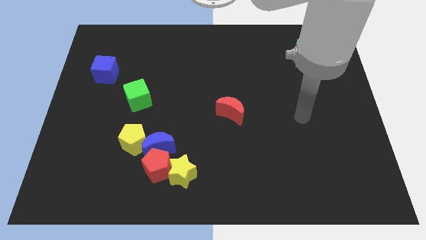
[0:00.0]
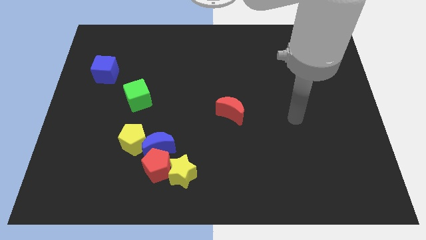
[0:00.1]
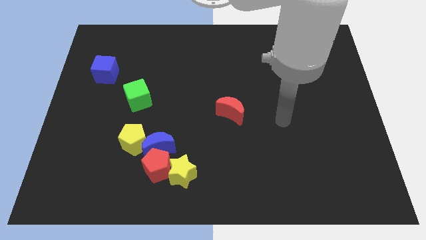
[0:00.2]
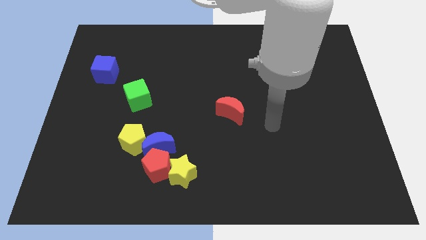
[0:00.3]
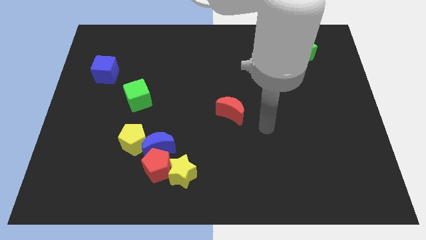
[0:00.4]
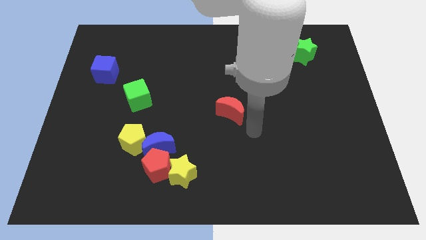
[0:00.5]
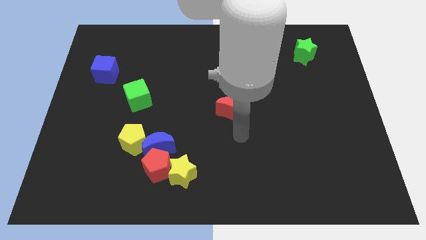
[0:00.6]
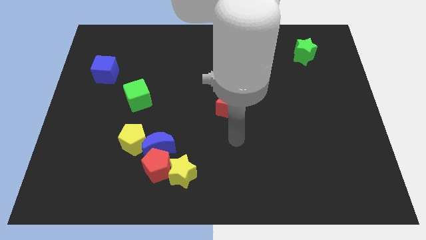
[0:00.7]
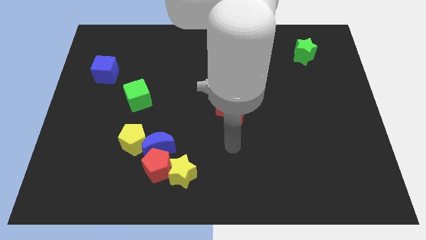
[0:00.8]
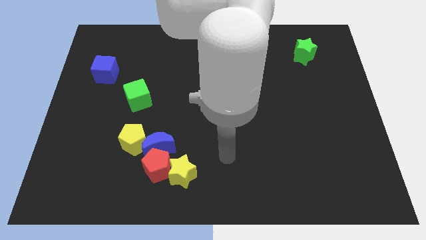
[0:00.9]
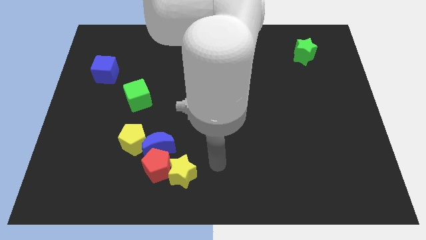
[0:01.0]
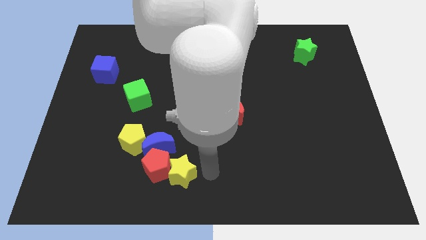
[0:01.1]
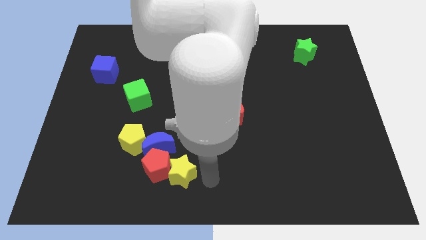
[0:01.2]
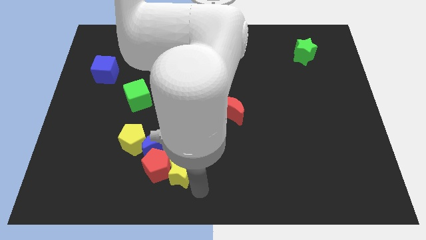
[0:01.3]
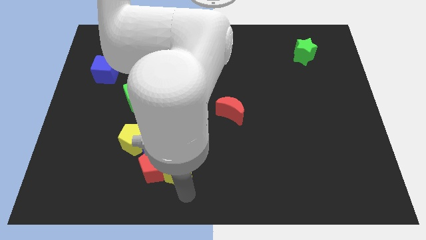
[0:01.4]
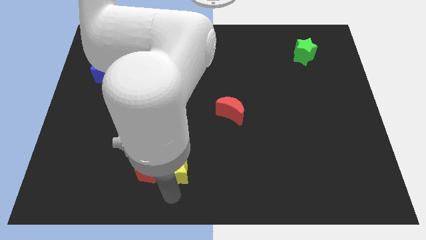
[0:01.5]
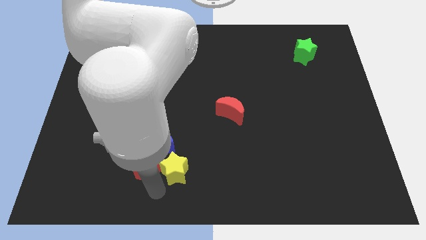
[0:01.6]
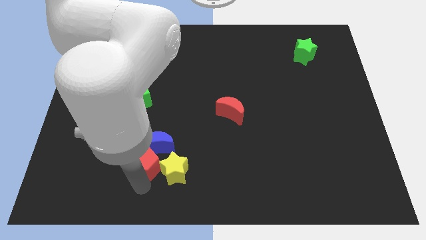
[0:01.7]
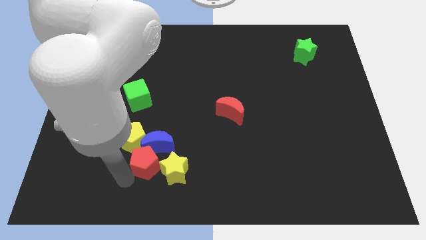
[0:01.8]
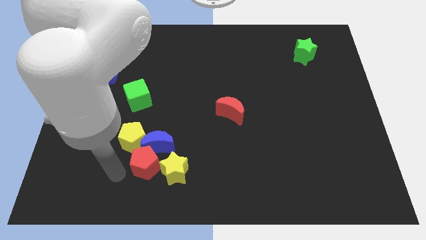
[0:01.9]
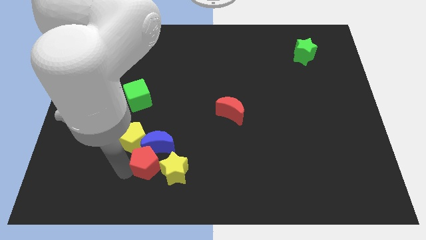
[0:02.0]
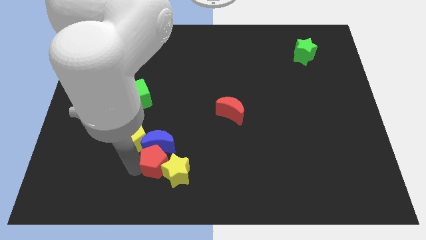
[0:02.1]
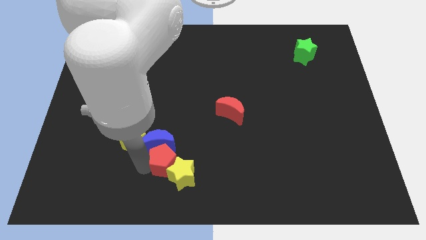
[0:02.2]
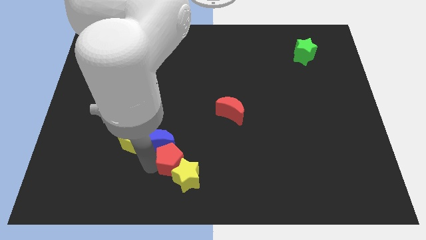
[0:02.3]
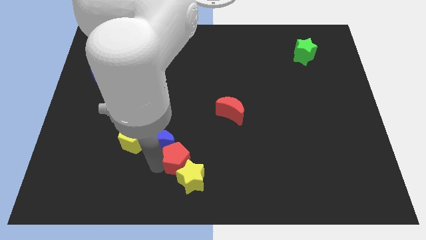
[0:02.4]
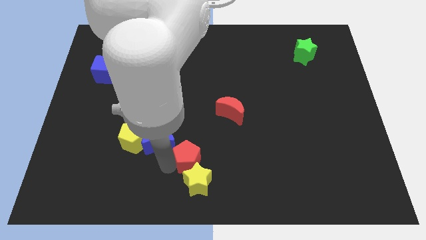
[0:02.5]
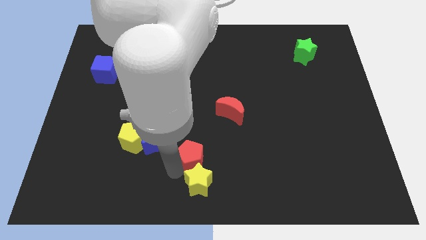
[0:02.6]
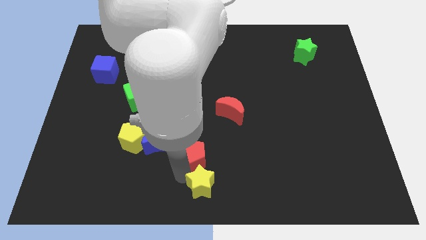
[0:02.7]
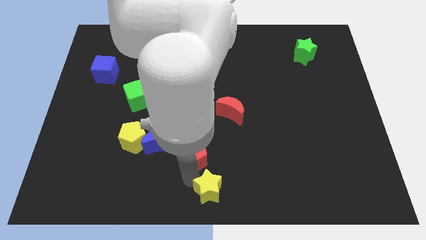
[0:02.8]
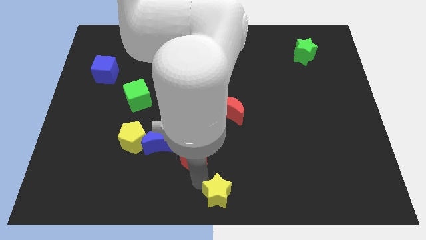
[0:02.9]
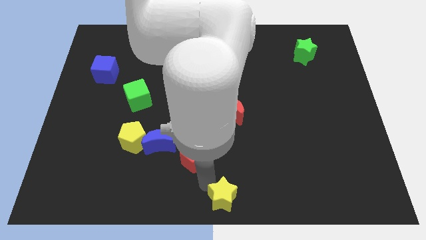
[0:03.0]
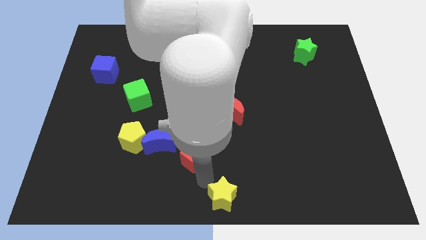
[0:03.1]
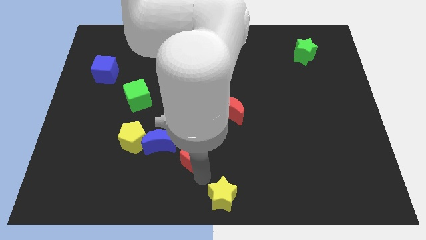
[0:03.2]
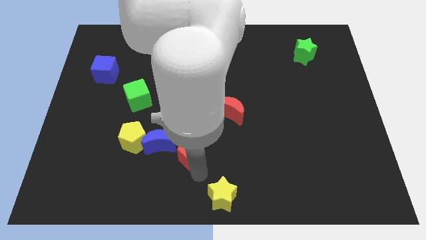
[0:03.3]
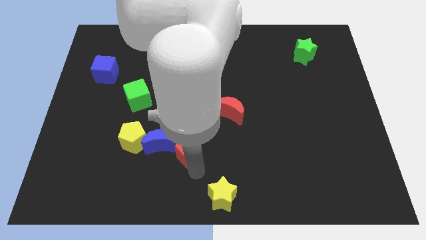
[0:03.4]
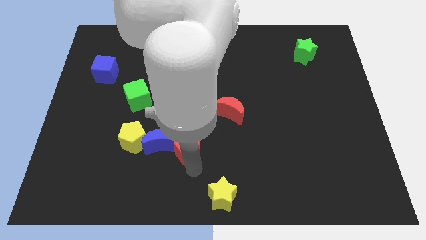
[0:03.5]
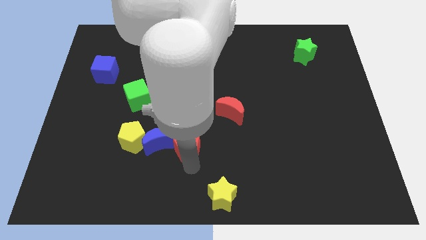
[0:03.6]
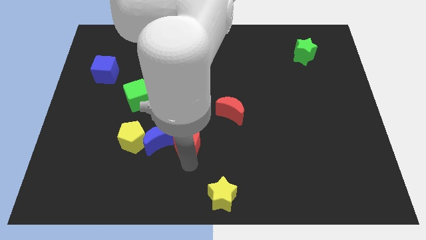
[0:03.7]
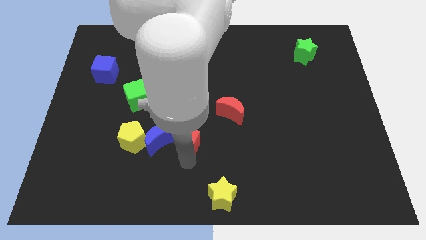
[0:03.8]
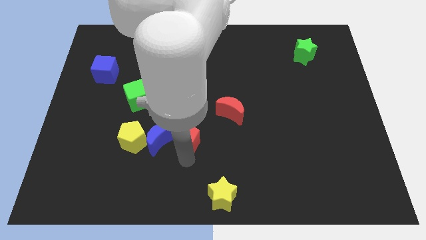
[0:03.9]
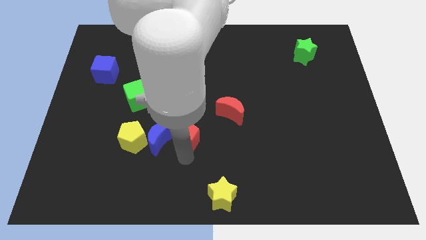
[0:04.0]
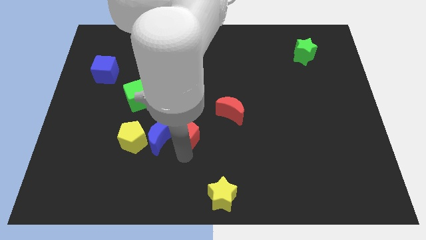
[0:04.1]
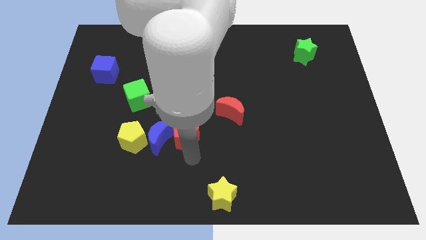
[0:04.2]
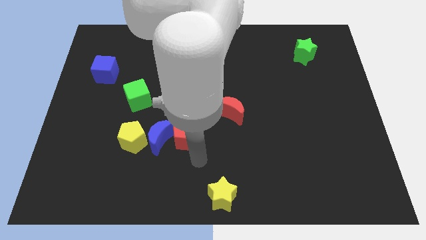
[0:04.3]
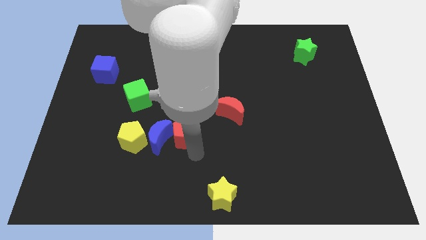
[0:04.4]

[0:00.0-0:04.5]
push the red pentagon up a little bit

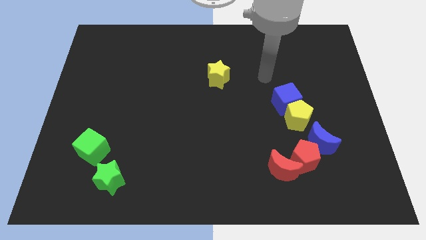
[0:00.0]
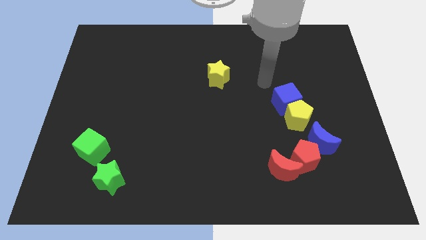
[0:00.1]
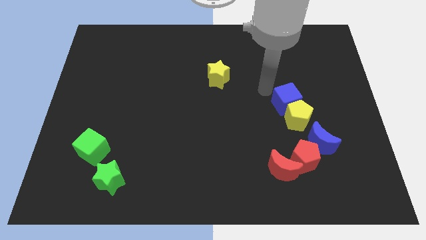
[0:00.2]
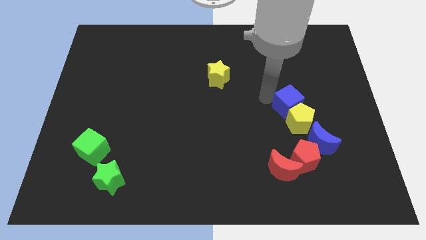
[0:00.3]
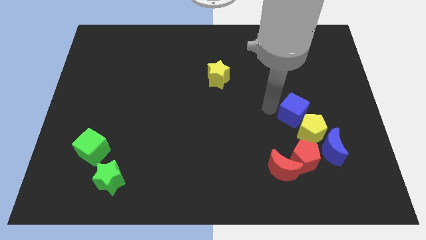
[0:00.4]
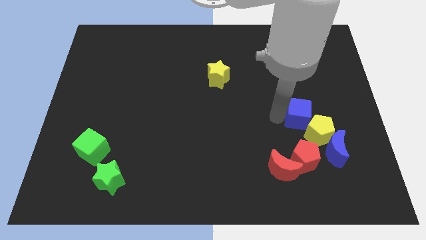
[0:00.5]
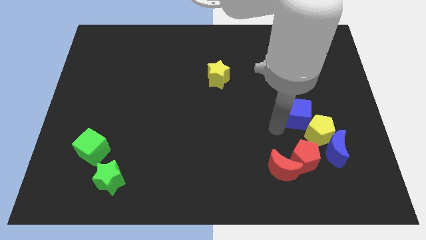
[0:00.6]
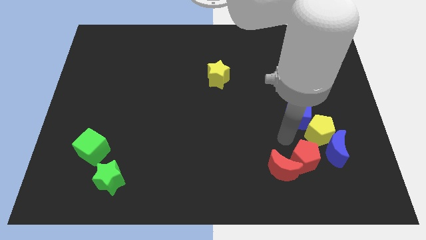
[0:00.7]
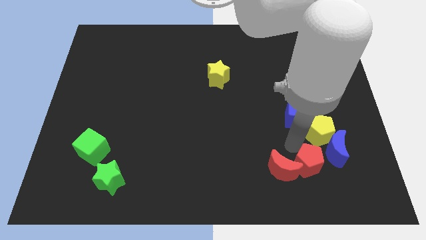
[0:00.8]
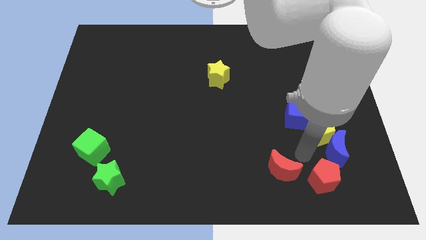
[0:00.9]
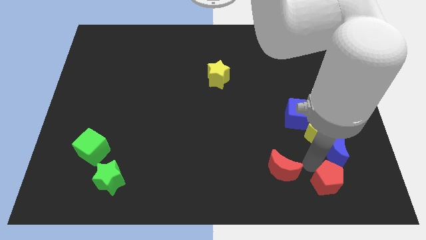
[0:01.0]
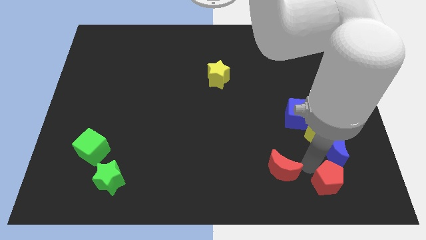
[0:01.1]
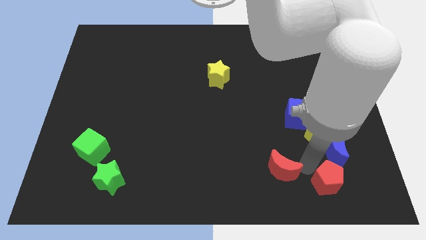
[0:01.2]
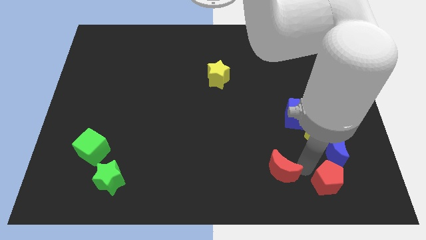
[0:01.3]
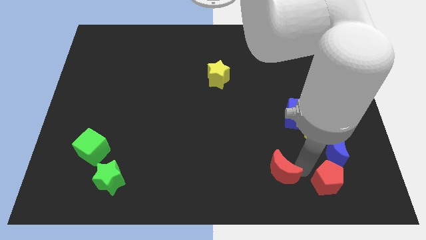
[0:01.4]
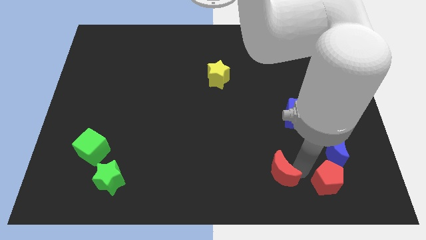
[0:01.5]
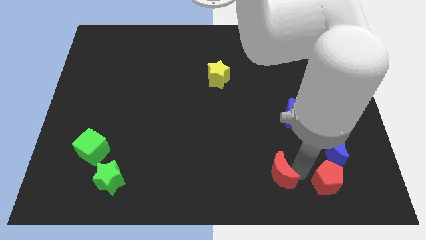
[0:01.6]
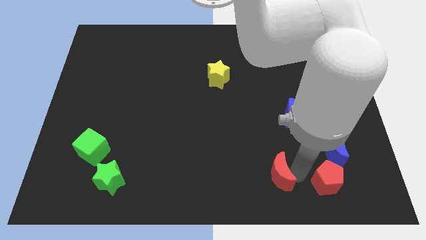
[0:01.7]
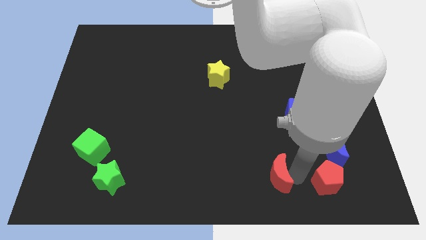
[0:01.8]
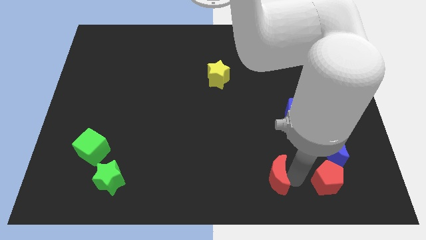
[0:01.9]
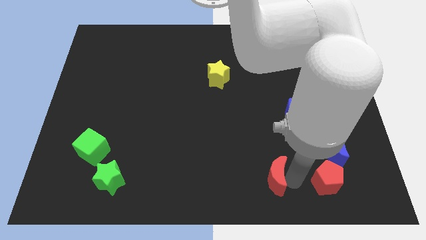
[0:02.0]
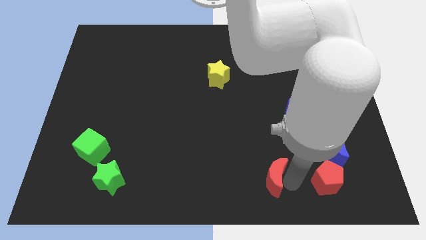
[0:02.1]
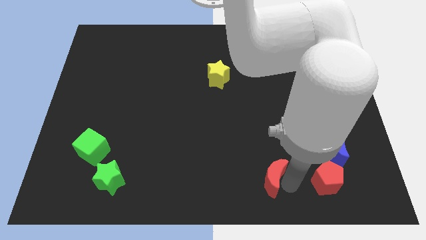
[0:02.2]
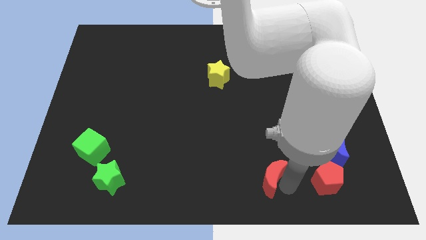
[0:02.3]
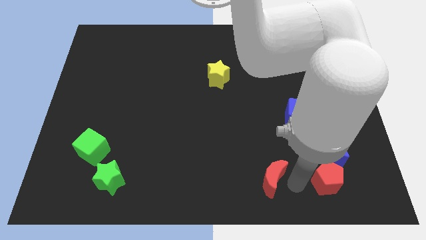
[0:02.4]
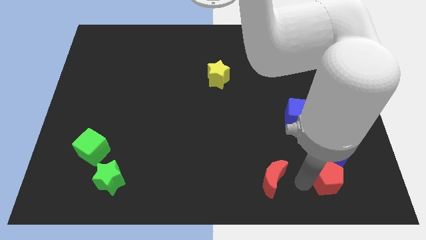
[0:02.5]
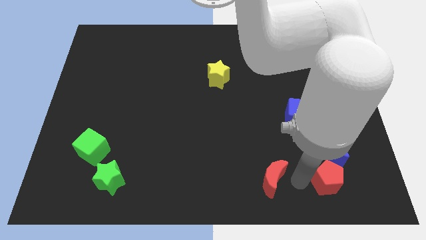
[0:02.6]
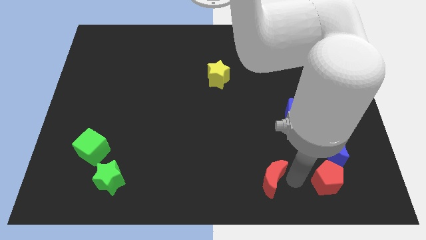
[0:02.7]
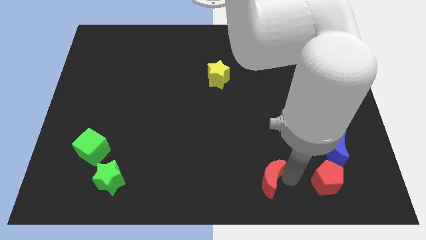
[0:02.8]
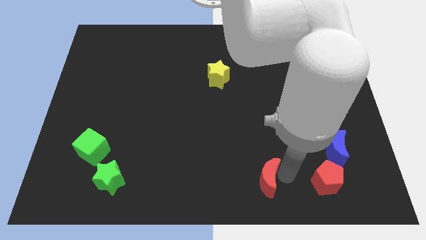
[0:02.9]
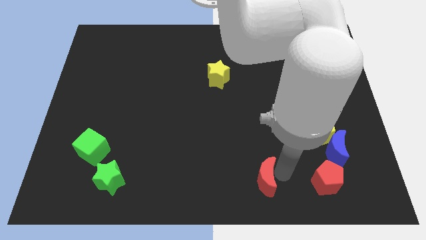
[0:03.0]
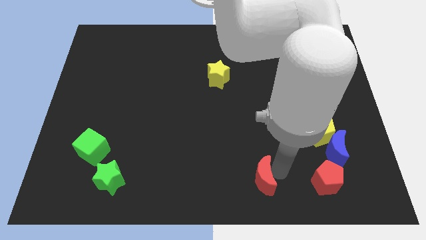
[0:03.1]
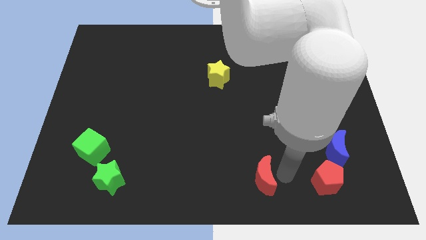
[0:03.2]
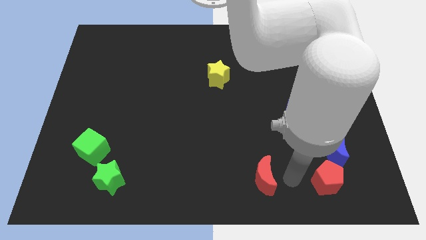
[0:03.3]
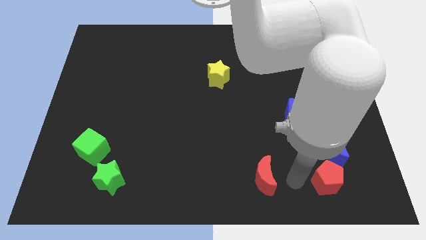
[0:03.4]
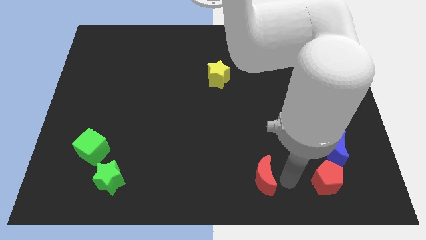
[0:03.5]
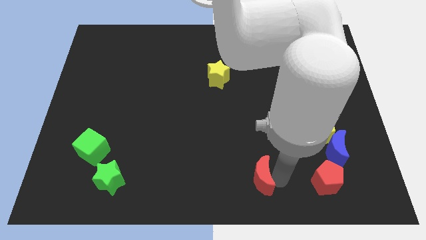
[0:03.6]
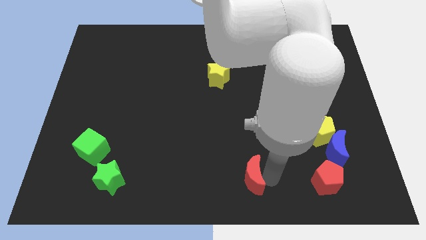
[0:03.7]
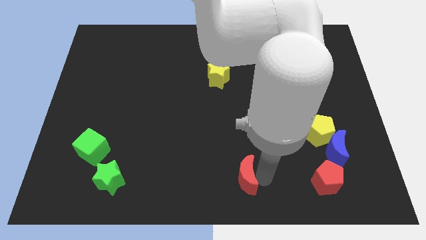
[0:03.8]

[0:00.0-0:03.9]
slightly slide the red moon to the left
